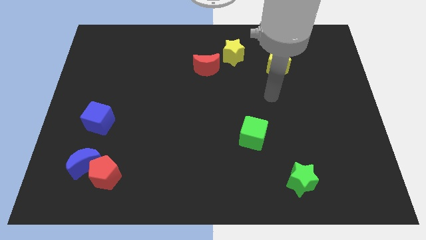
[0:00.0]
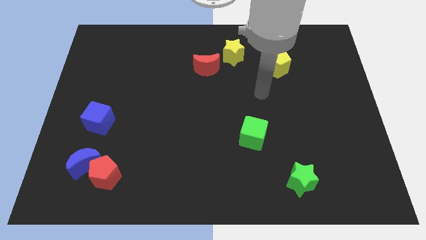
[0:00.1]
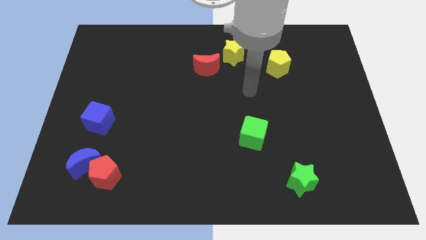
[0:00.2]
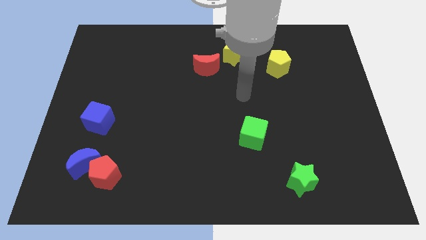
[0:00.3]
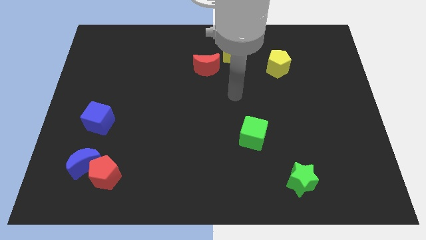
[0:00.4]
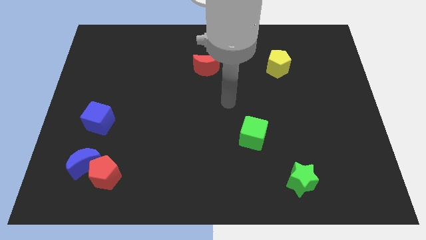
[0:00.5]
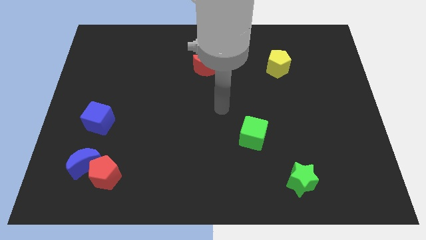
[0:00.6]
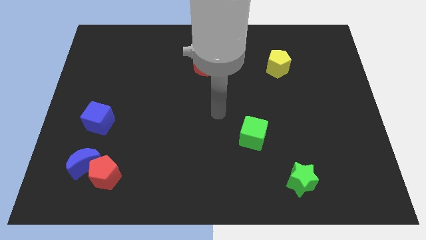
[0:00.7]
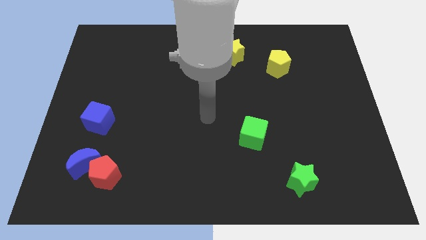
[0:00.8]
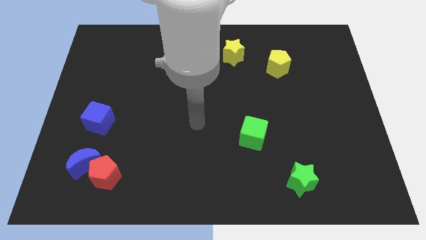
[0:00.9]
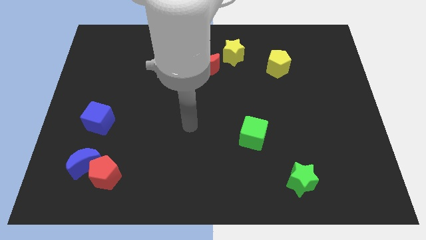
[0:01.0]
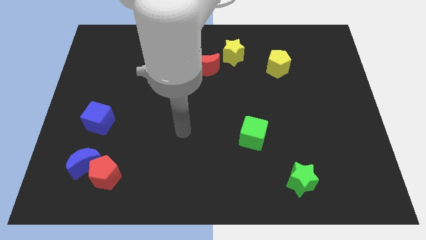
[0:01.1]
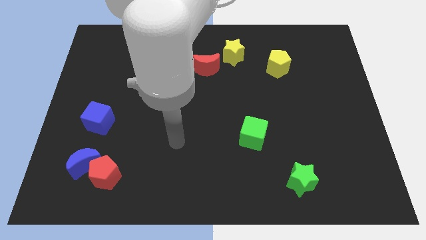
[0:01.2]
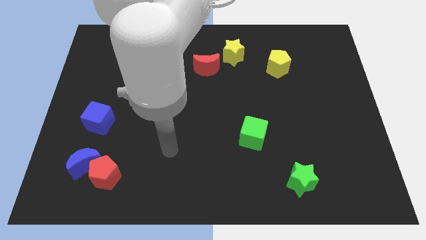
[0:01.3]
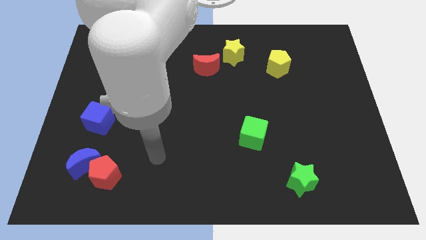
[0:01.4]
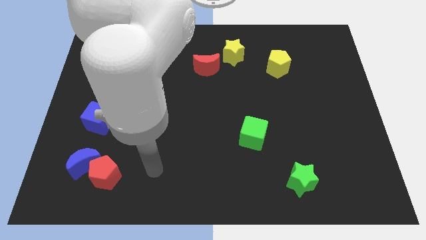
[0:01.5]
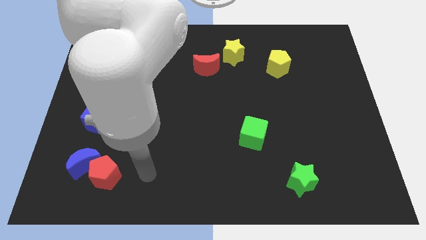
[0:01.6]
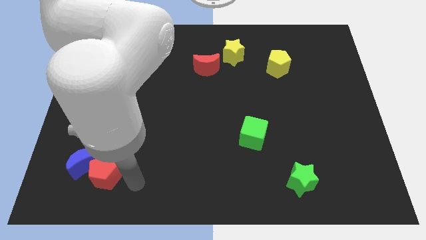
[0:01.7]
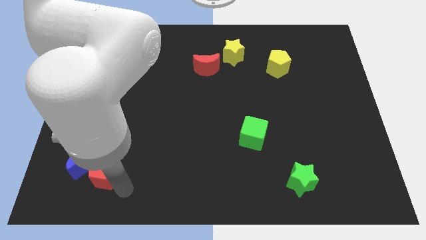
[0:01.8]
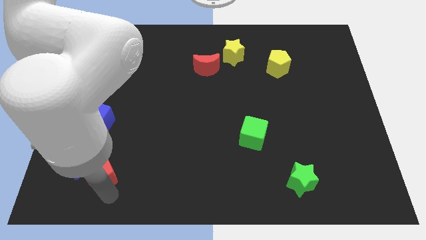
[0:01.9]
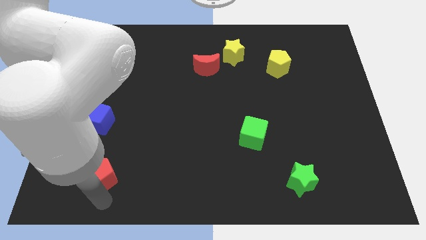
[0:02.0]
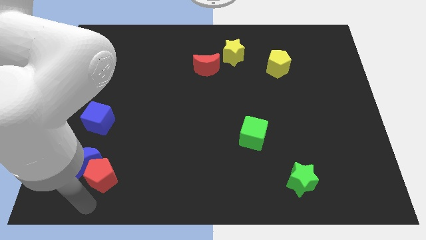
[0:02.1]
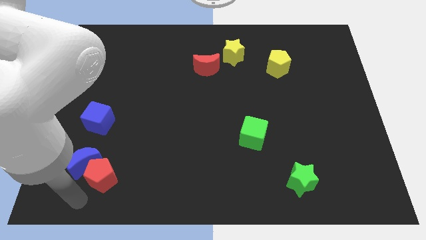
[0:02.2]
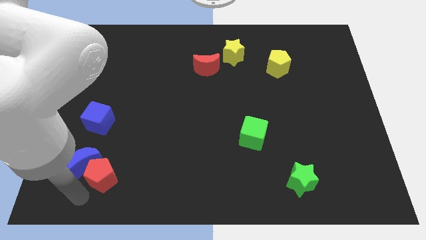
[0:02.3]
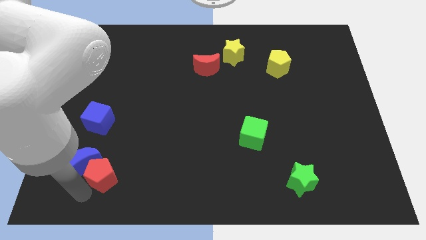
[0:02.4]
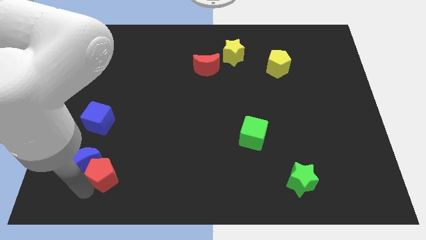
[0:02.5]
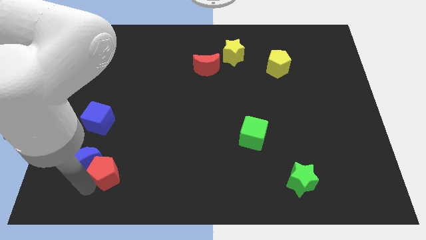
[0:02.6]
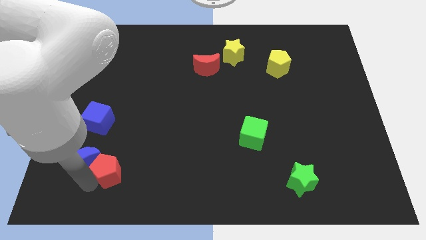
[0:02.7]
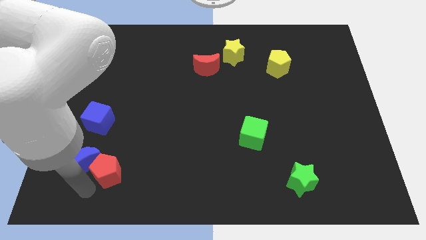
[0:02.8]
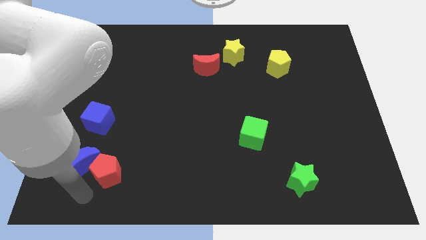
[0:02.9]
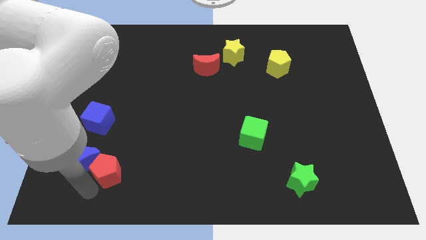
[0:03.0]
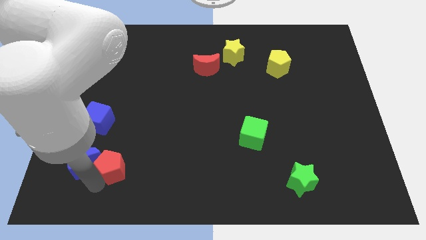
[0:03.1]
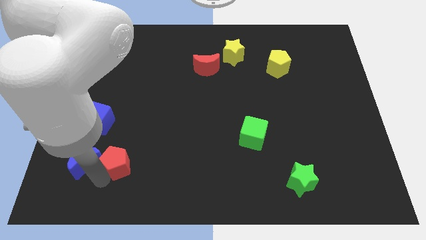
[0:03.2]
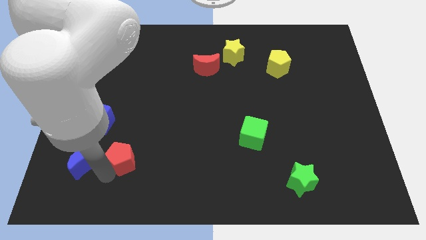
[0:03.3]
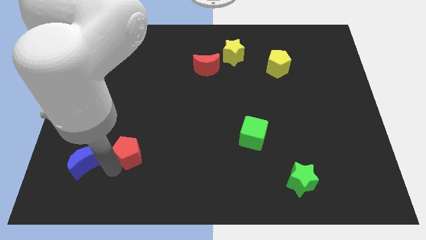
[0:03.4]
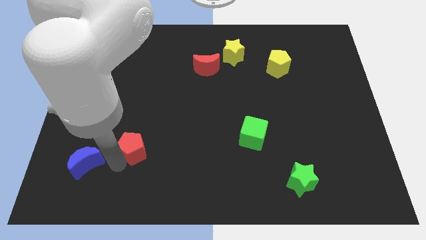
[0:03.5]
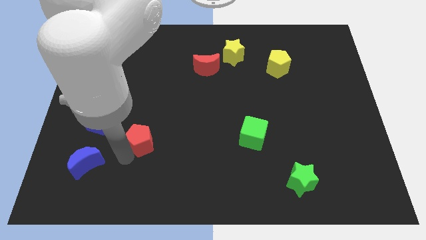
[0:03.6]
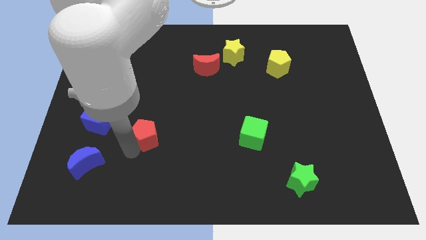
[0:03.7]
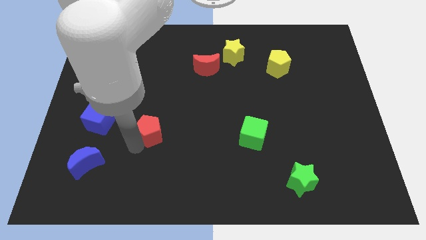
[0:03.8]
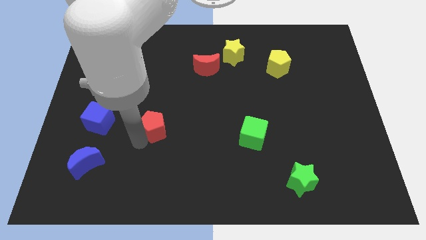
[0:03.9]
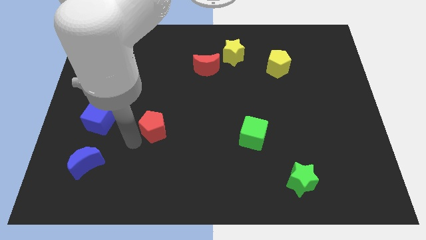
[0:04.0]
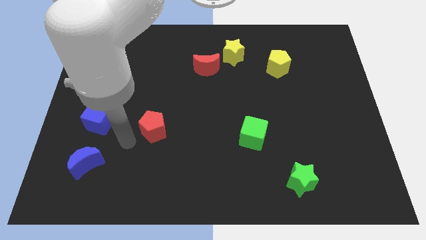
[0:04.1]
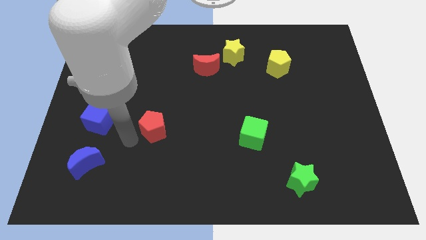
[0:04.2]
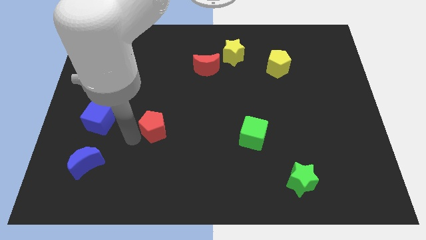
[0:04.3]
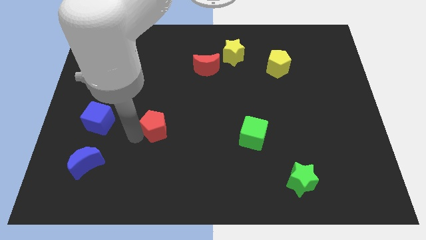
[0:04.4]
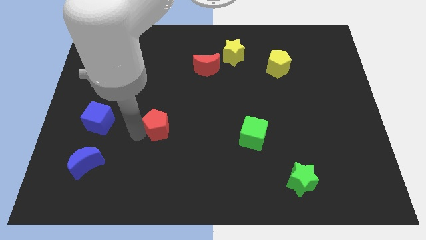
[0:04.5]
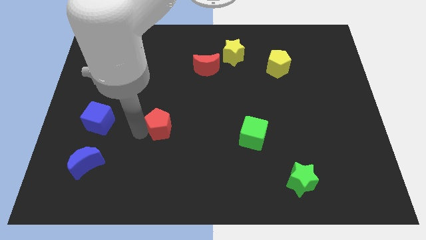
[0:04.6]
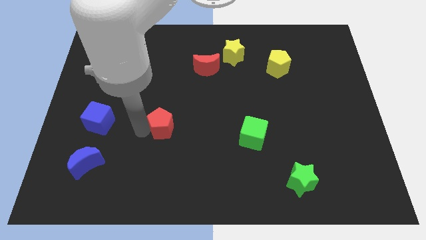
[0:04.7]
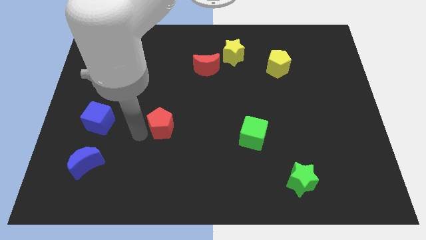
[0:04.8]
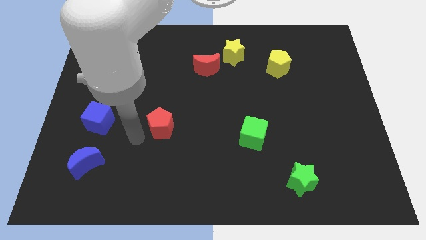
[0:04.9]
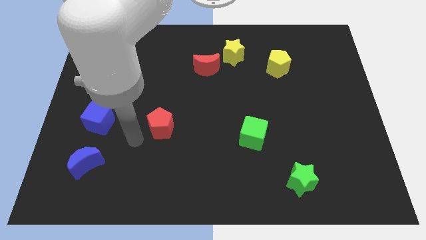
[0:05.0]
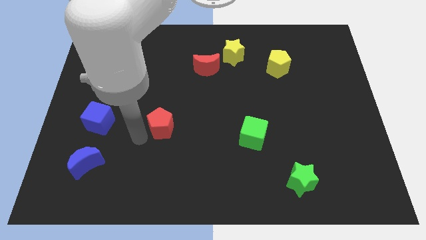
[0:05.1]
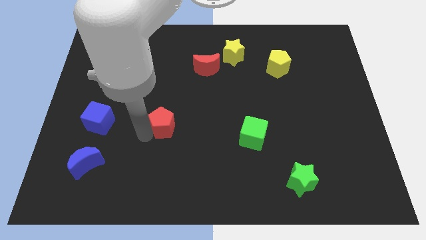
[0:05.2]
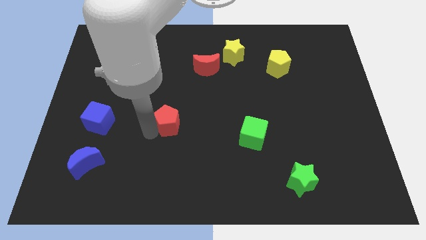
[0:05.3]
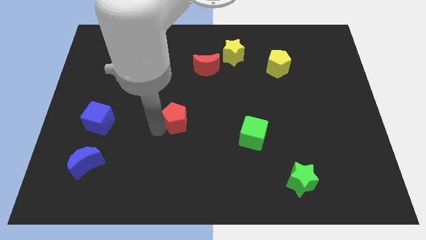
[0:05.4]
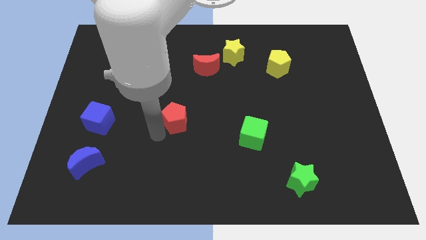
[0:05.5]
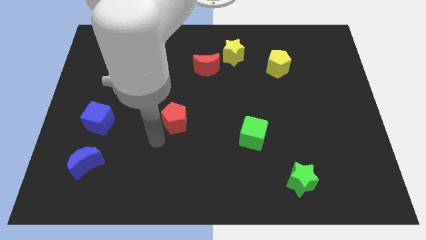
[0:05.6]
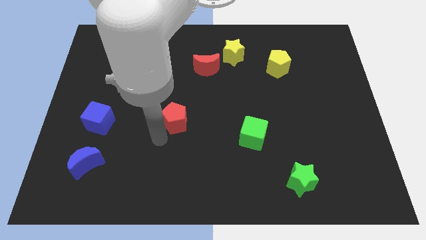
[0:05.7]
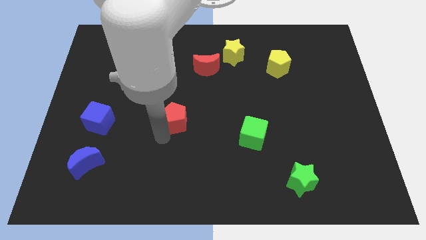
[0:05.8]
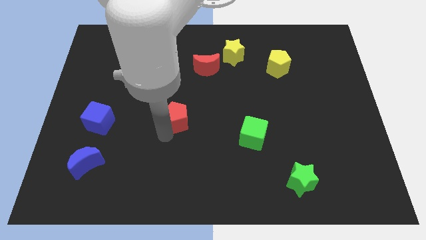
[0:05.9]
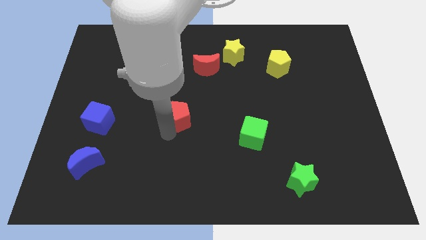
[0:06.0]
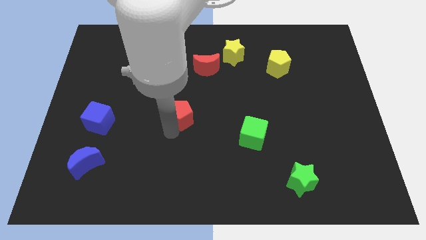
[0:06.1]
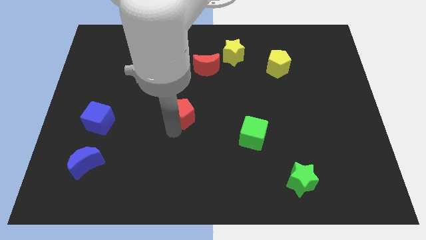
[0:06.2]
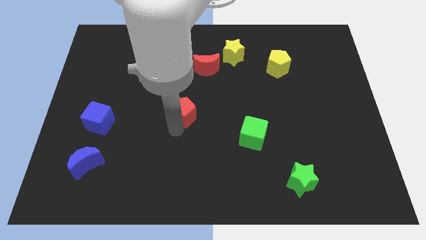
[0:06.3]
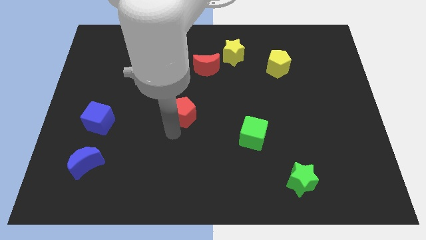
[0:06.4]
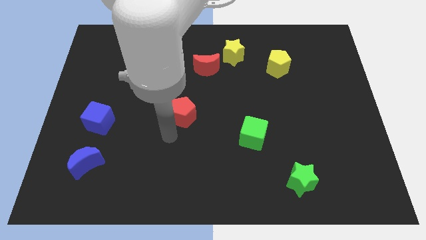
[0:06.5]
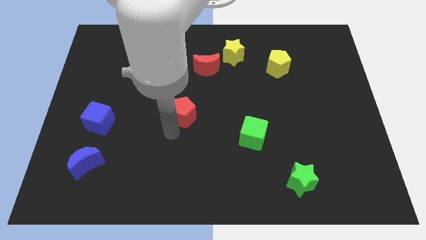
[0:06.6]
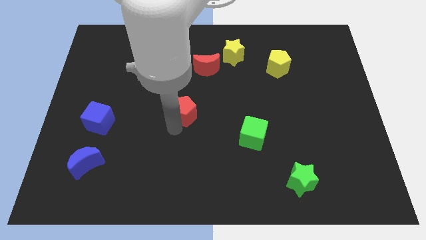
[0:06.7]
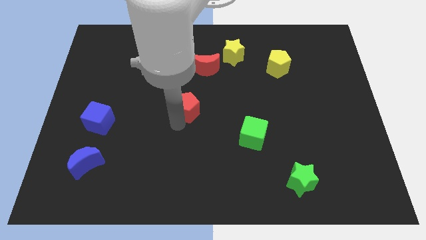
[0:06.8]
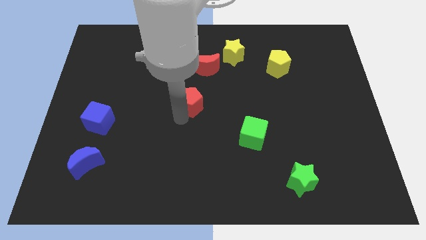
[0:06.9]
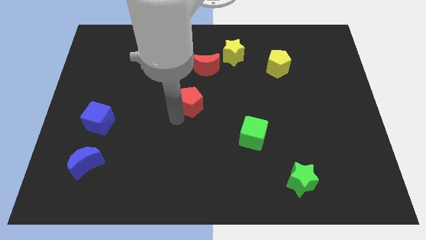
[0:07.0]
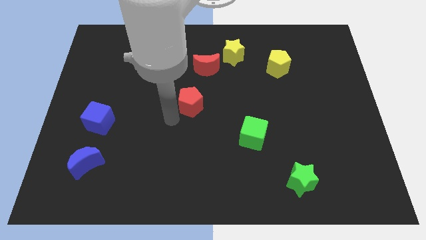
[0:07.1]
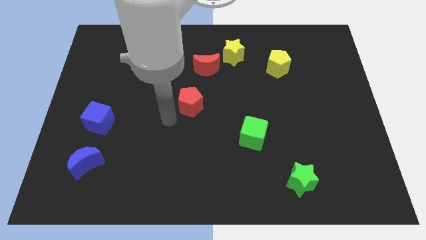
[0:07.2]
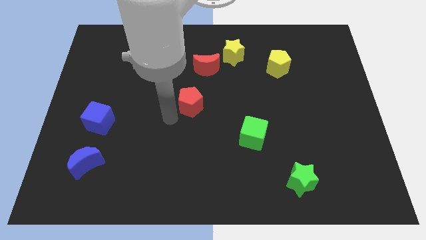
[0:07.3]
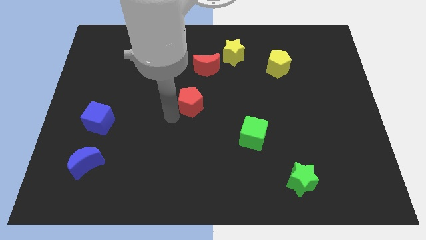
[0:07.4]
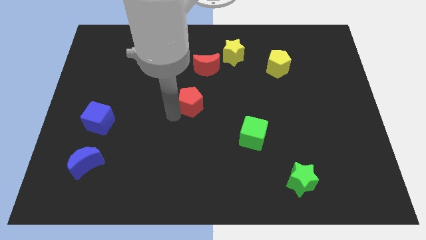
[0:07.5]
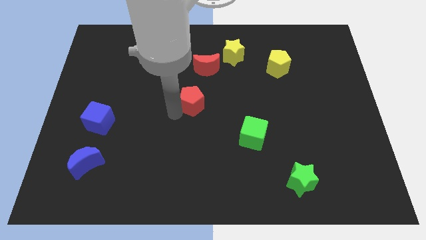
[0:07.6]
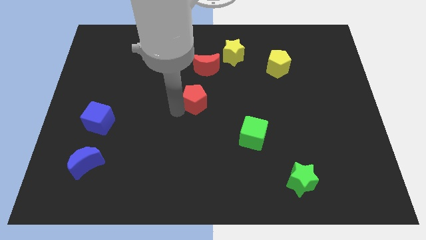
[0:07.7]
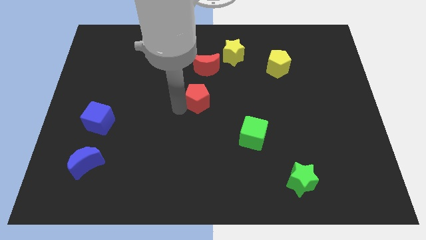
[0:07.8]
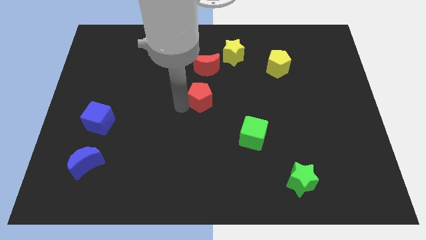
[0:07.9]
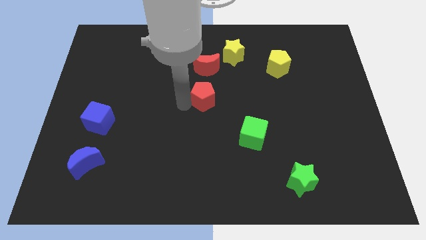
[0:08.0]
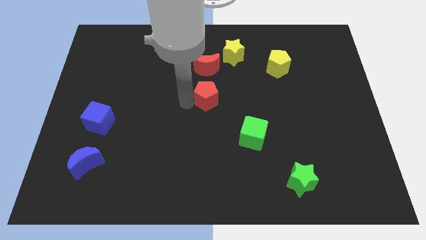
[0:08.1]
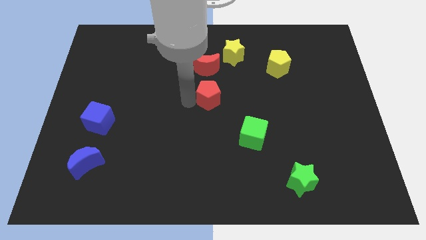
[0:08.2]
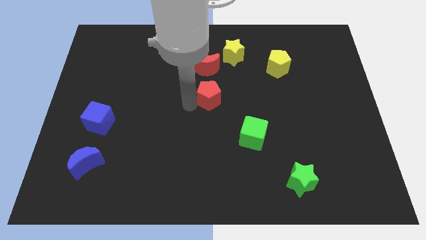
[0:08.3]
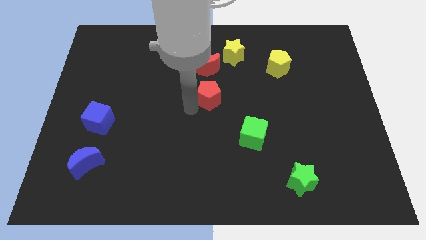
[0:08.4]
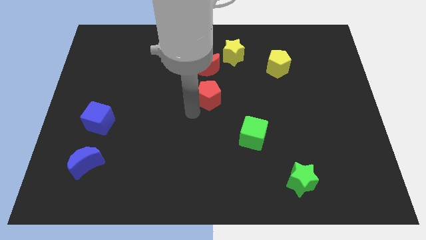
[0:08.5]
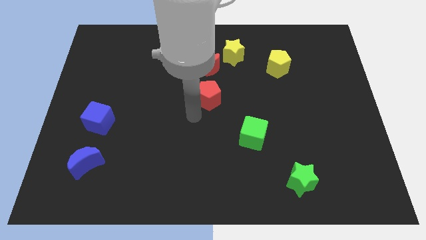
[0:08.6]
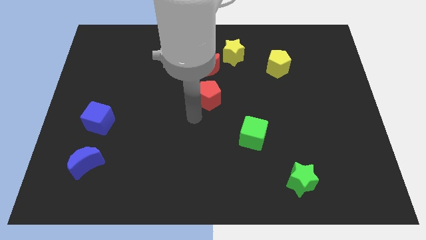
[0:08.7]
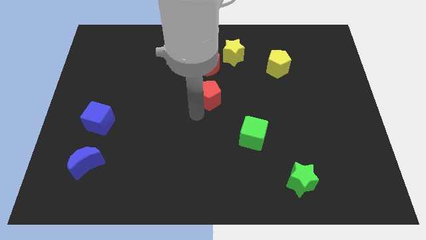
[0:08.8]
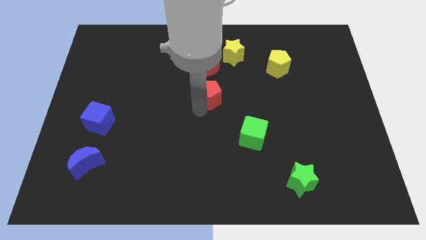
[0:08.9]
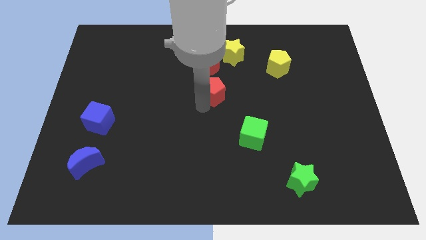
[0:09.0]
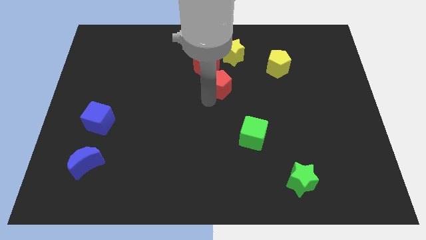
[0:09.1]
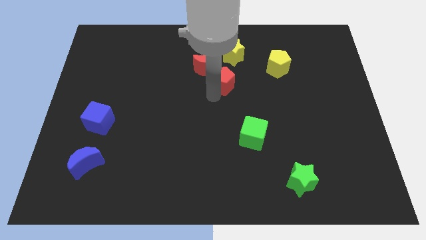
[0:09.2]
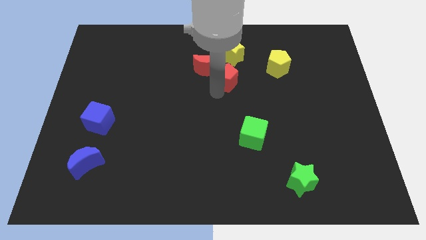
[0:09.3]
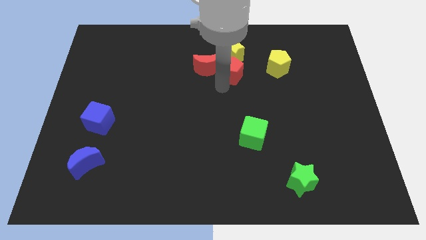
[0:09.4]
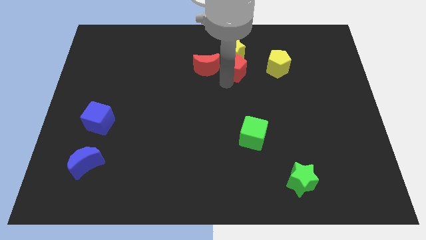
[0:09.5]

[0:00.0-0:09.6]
move the red pentagon close to the yellow star
